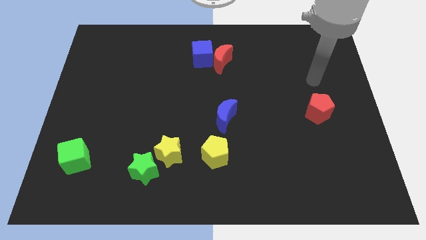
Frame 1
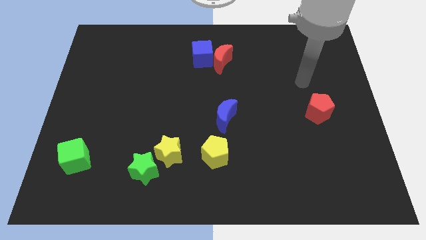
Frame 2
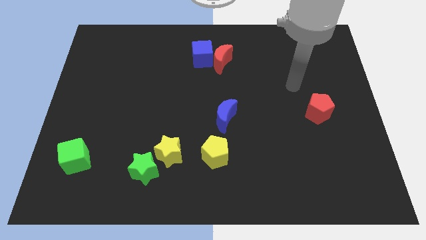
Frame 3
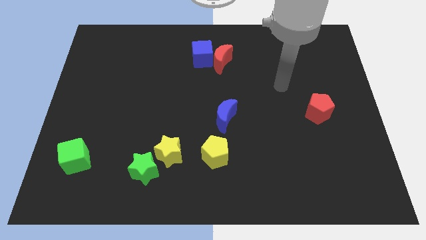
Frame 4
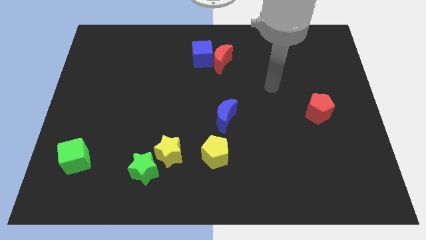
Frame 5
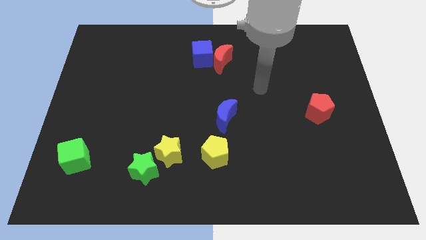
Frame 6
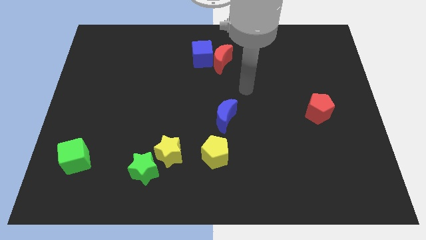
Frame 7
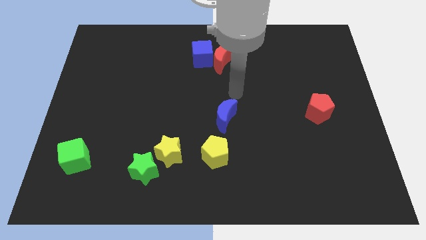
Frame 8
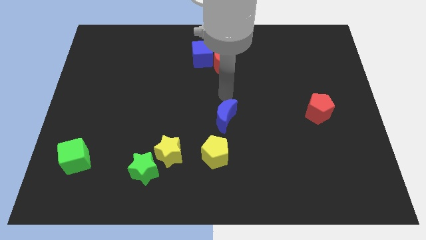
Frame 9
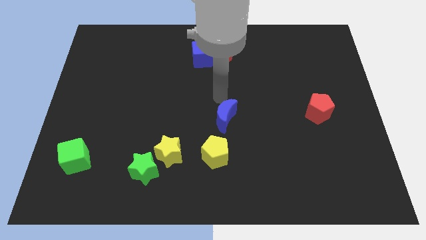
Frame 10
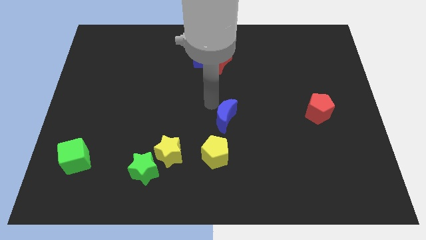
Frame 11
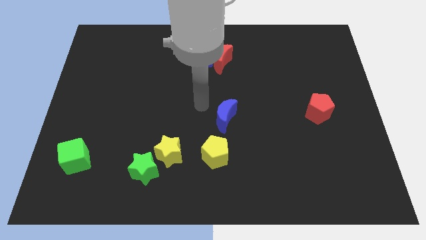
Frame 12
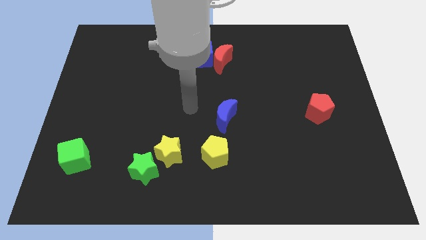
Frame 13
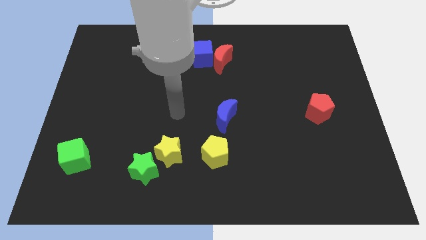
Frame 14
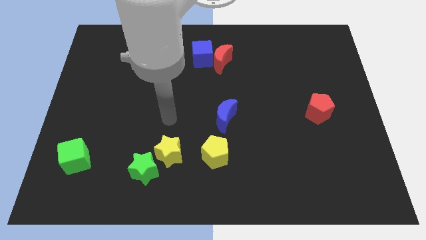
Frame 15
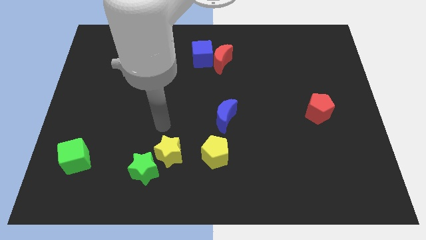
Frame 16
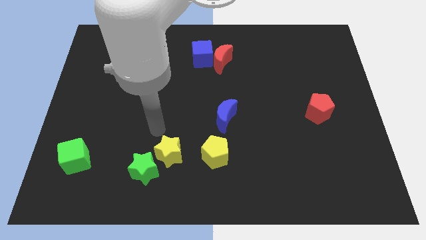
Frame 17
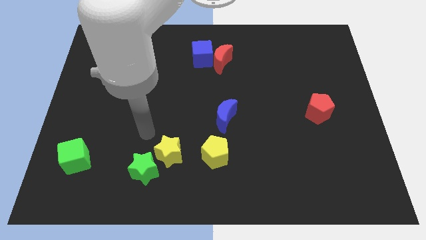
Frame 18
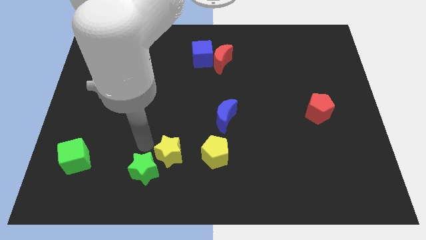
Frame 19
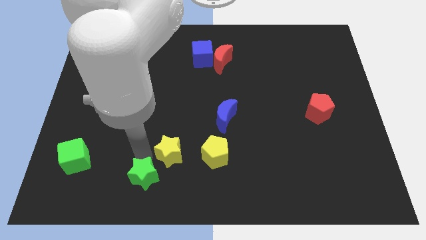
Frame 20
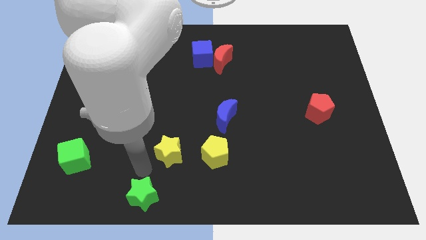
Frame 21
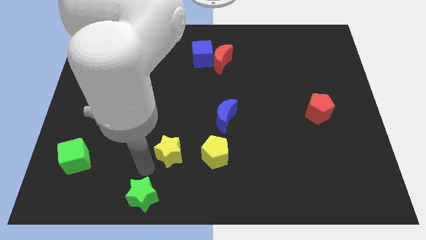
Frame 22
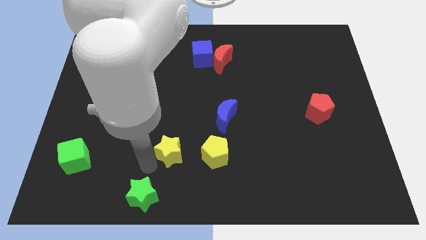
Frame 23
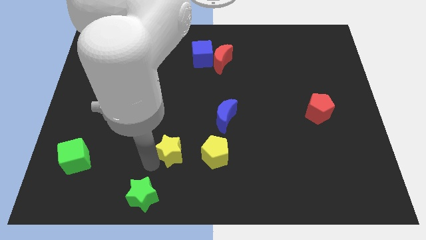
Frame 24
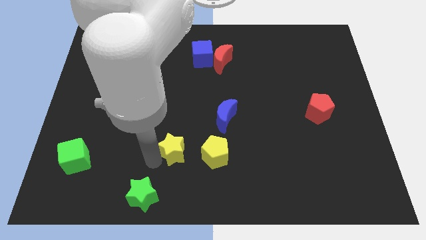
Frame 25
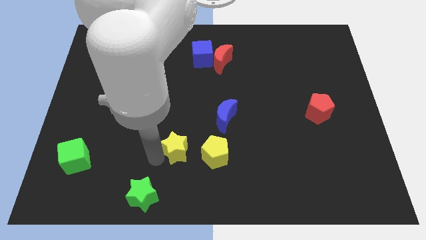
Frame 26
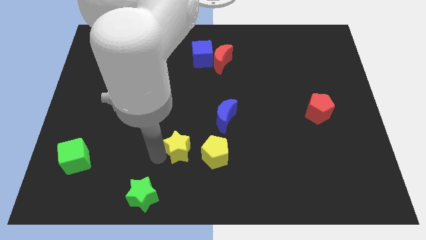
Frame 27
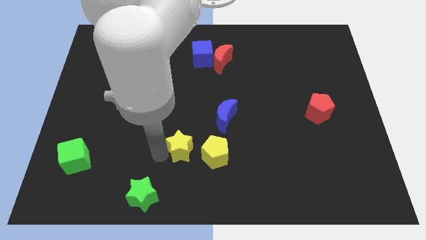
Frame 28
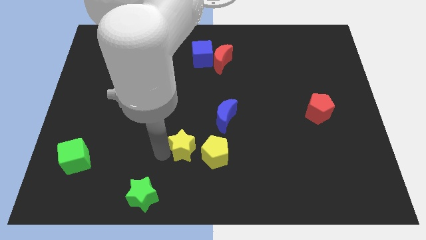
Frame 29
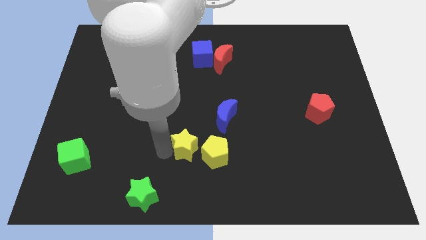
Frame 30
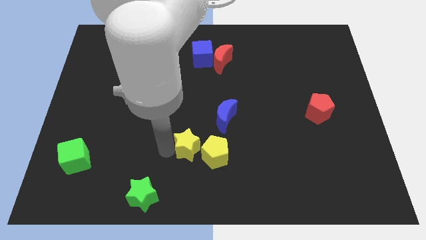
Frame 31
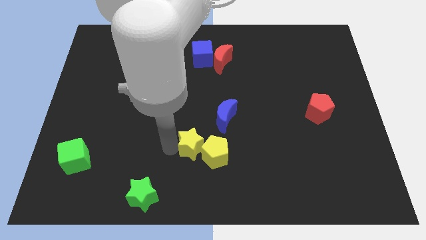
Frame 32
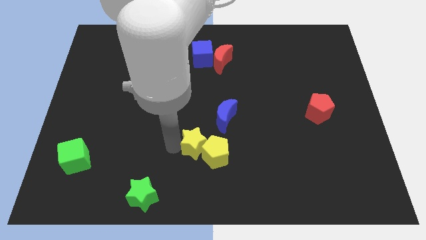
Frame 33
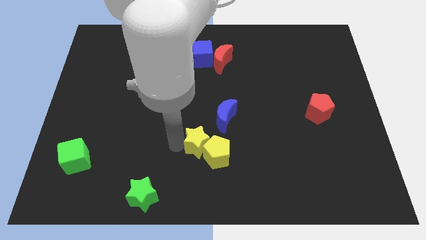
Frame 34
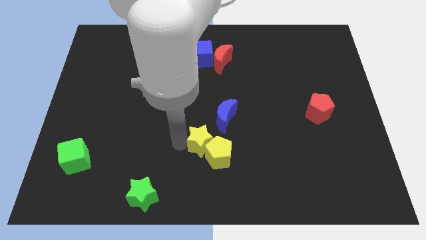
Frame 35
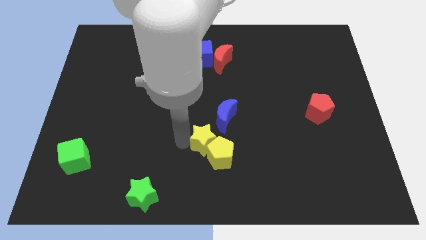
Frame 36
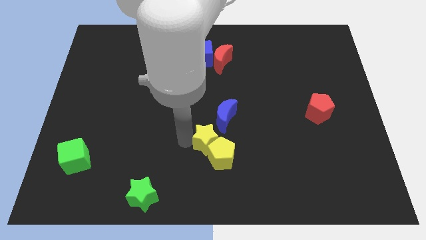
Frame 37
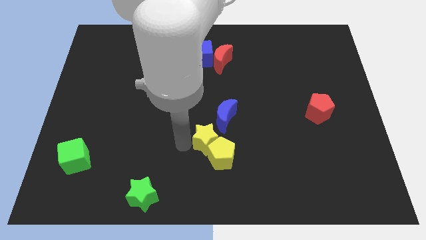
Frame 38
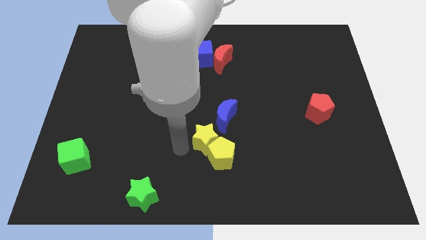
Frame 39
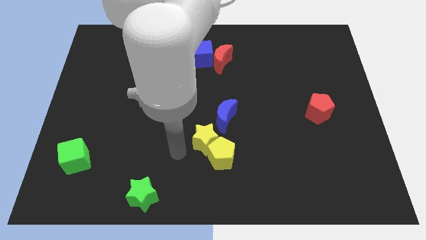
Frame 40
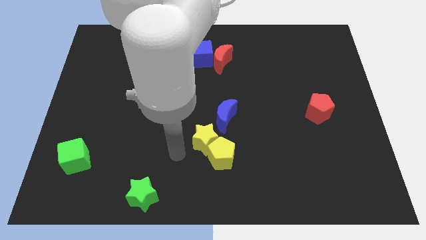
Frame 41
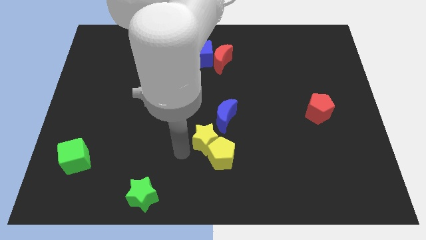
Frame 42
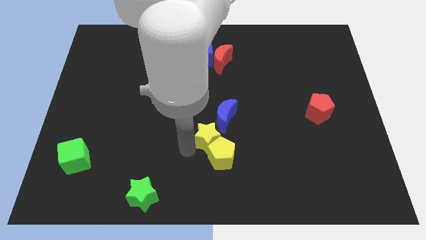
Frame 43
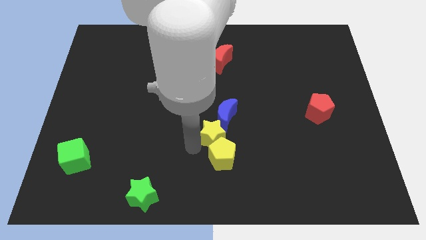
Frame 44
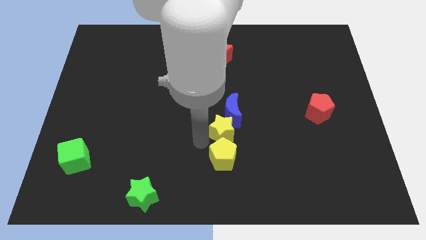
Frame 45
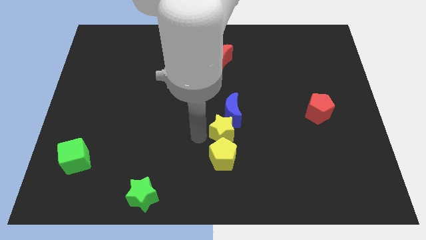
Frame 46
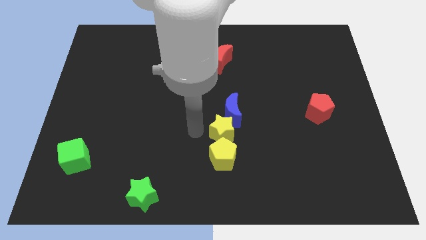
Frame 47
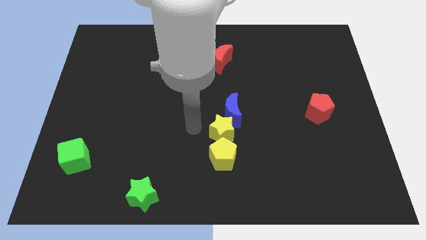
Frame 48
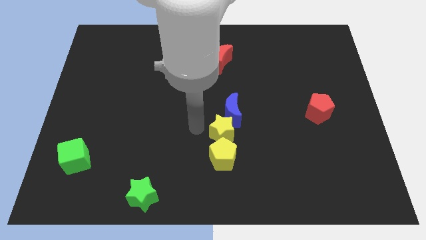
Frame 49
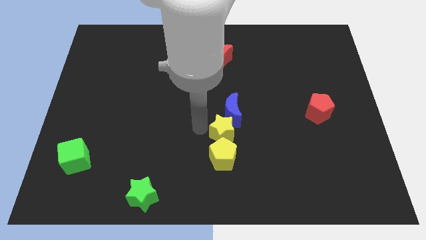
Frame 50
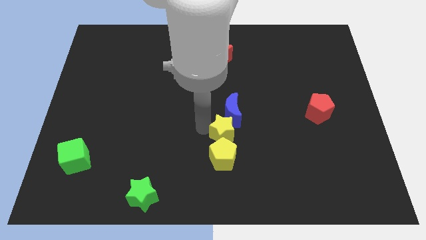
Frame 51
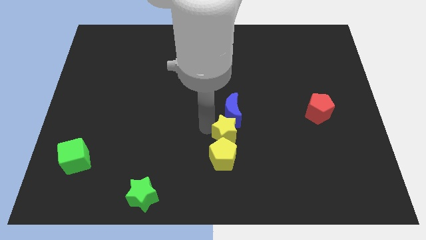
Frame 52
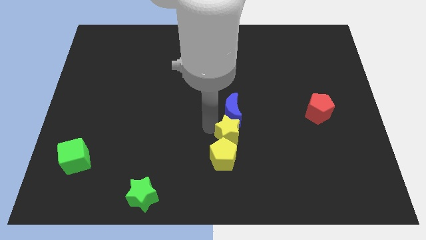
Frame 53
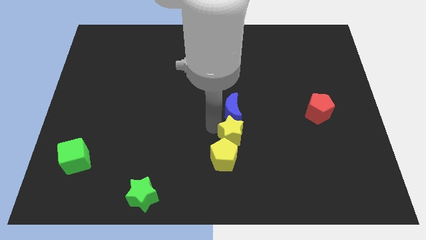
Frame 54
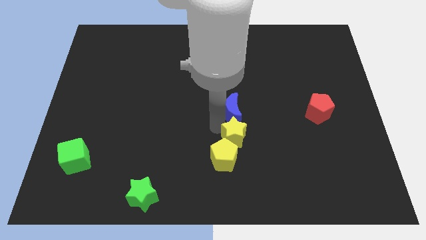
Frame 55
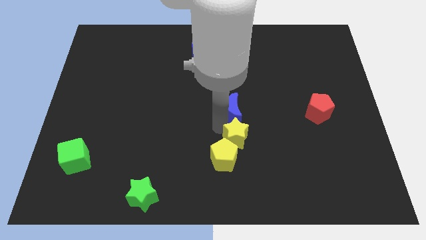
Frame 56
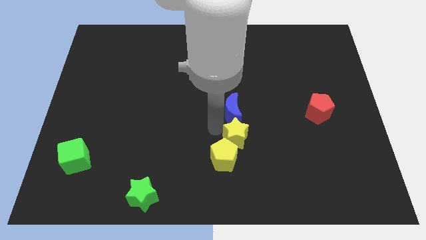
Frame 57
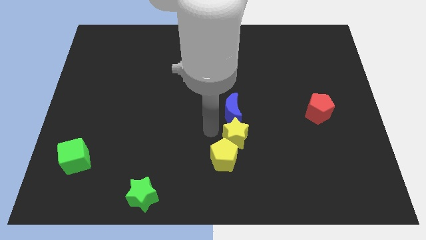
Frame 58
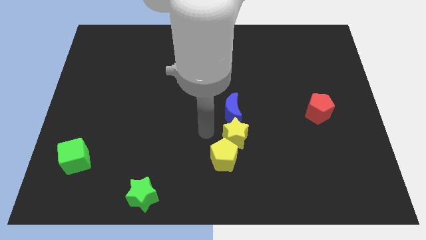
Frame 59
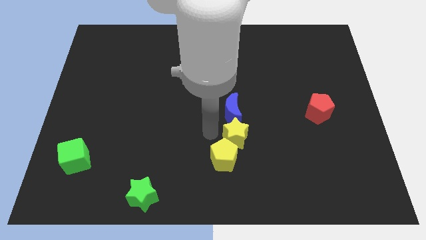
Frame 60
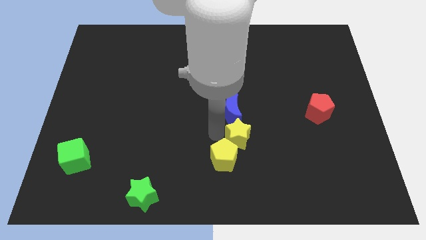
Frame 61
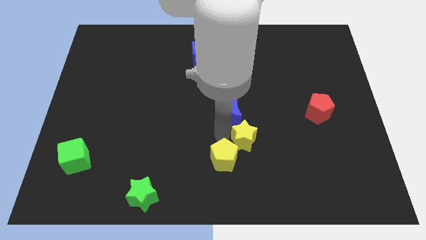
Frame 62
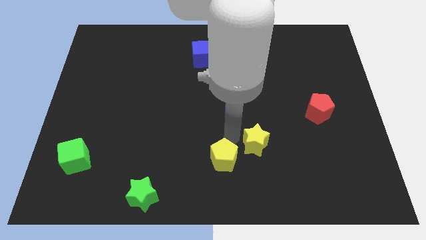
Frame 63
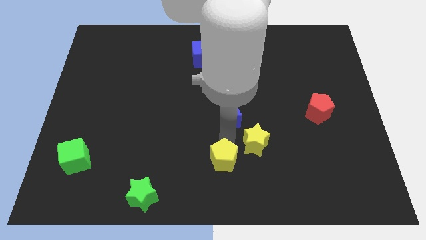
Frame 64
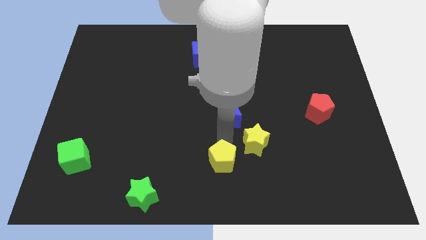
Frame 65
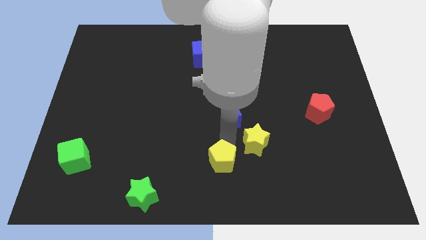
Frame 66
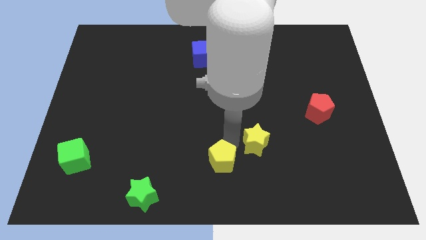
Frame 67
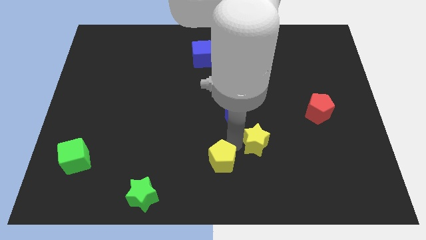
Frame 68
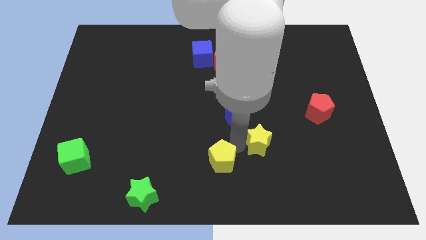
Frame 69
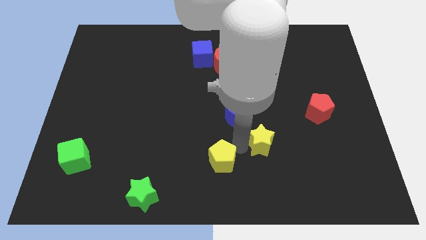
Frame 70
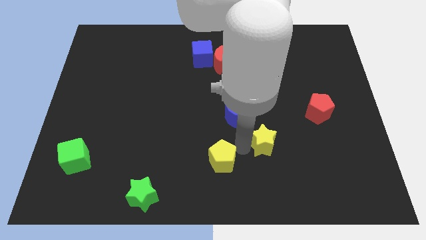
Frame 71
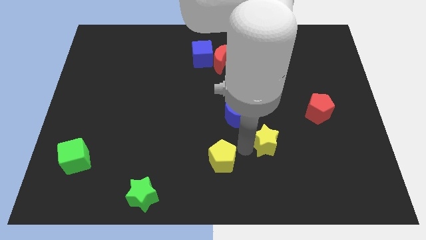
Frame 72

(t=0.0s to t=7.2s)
slide the yellow star to the right

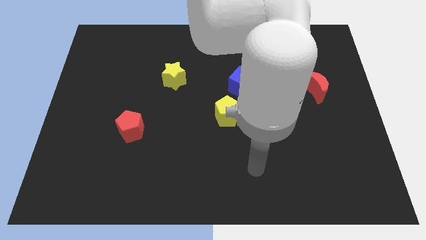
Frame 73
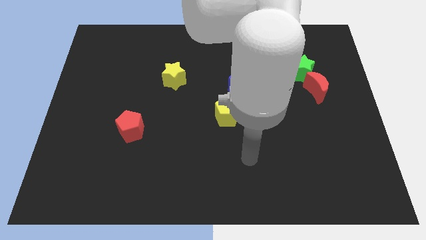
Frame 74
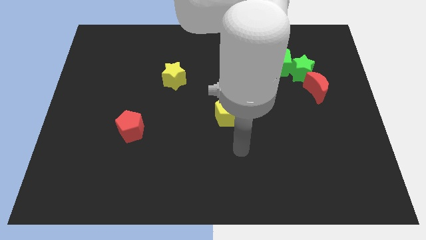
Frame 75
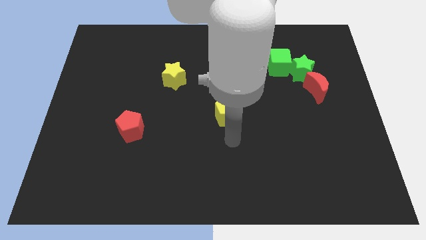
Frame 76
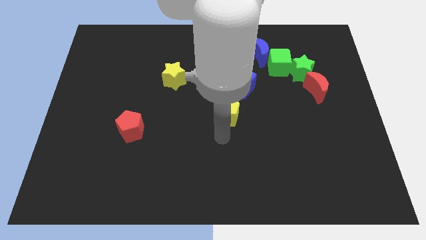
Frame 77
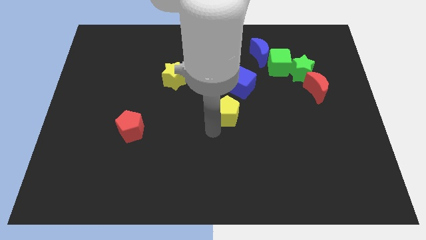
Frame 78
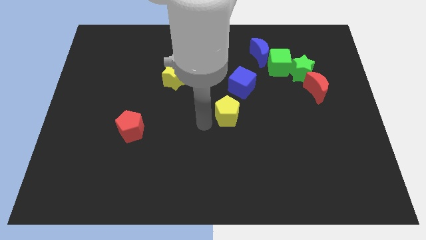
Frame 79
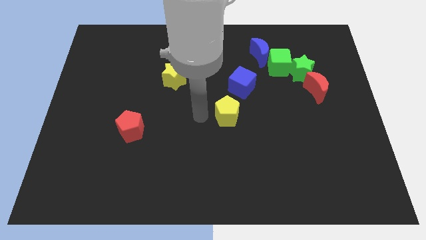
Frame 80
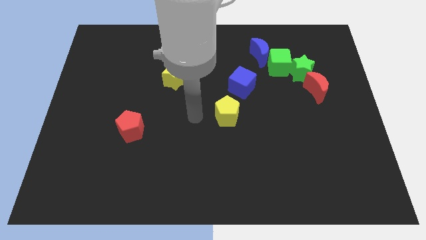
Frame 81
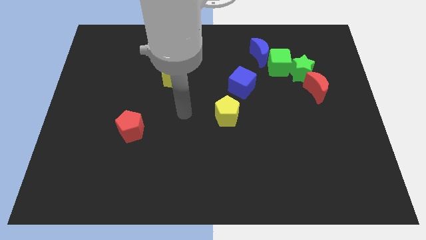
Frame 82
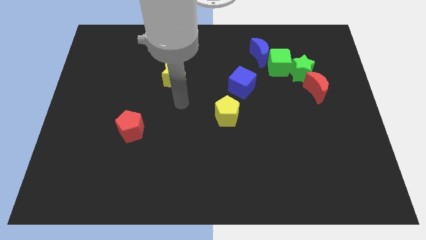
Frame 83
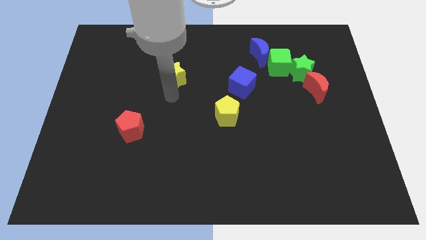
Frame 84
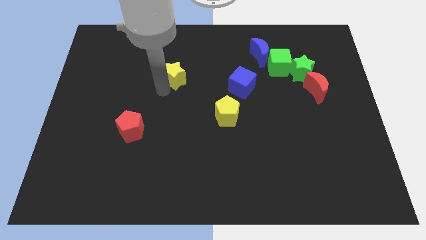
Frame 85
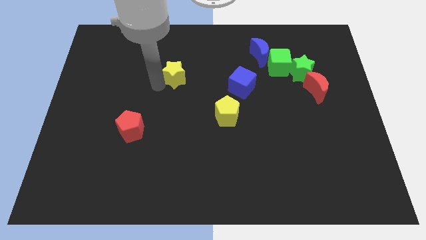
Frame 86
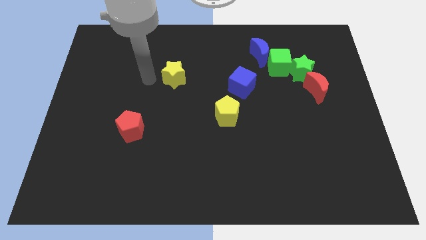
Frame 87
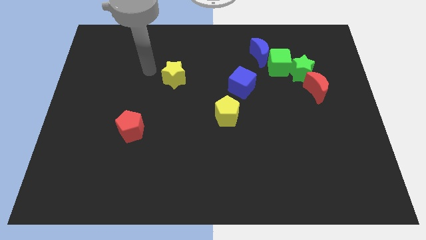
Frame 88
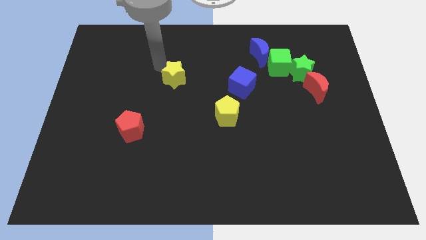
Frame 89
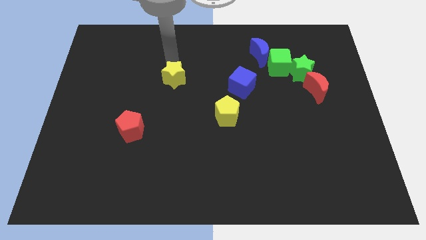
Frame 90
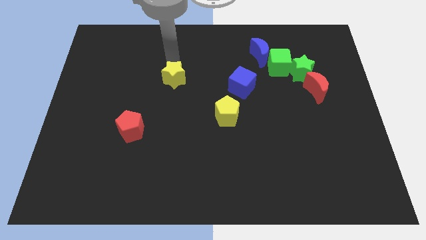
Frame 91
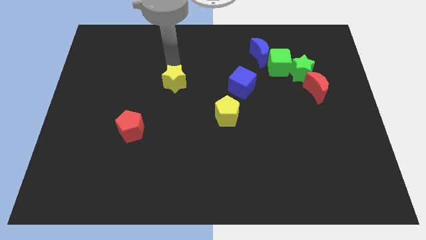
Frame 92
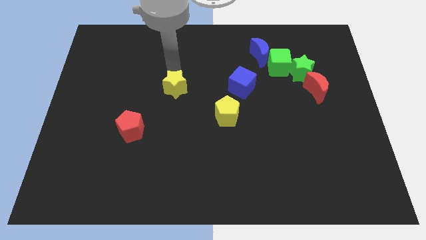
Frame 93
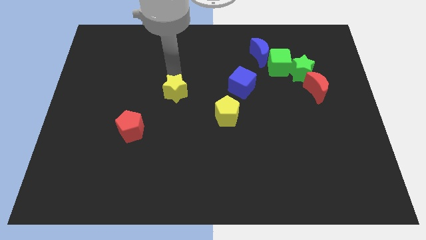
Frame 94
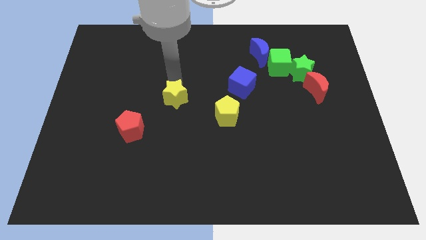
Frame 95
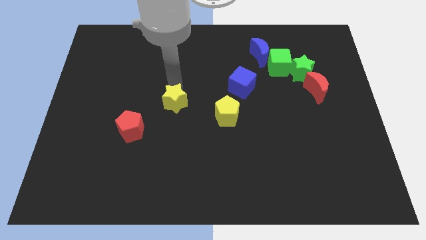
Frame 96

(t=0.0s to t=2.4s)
slide the yellow star a bit downwards
